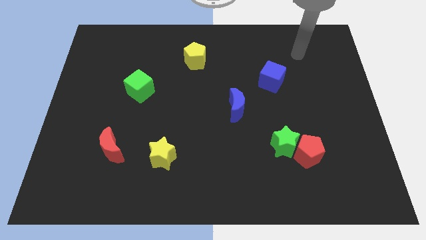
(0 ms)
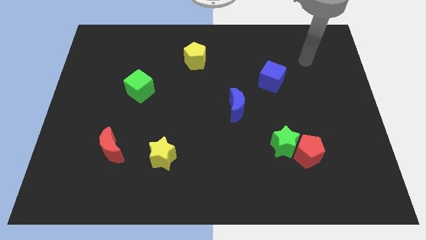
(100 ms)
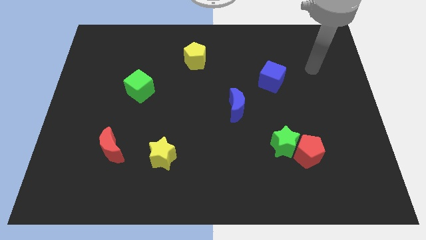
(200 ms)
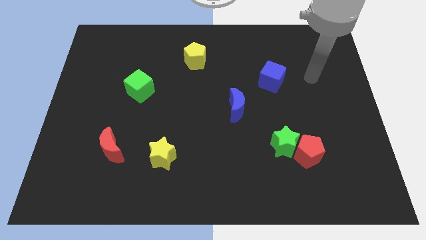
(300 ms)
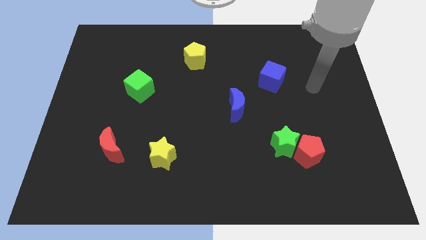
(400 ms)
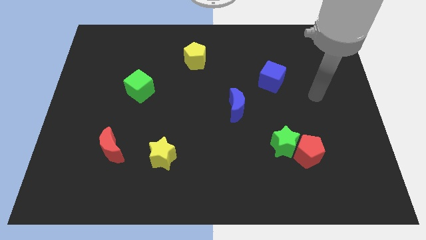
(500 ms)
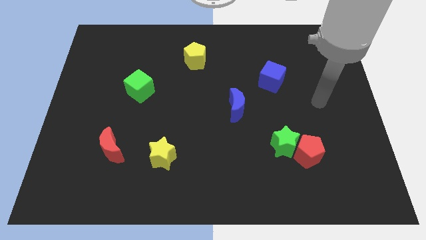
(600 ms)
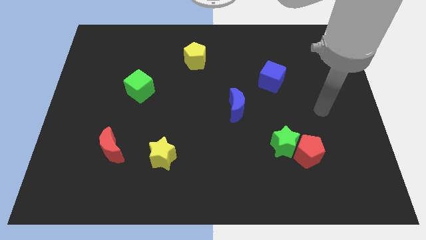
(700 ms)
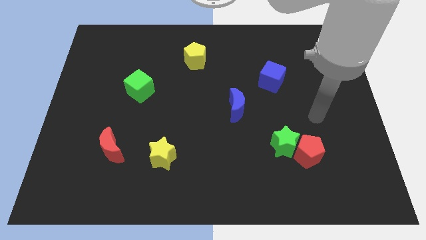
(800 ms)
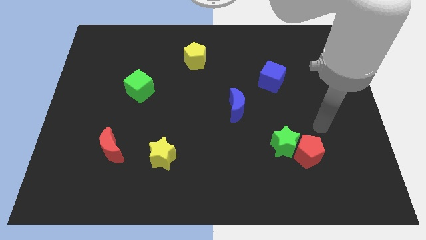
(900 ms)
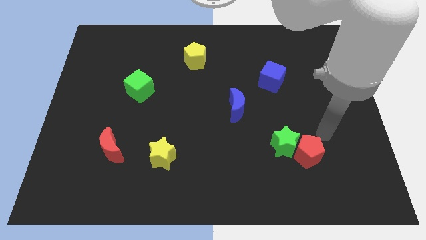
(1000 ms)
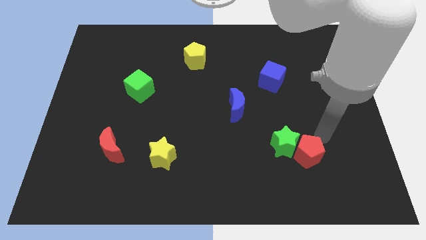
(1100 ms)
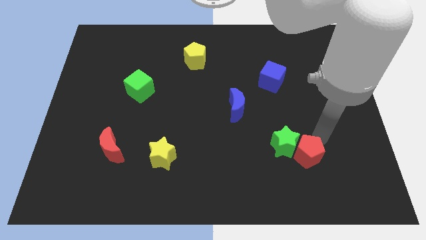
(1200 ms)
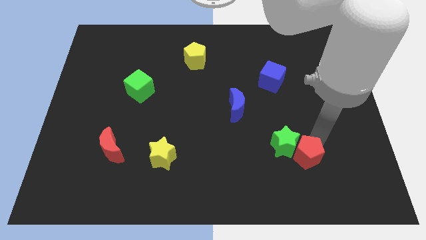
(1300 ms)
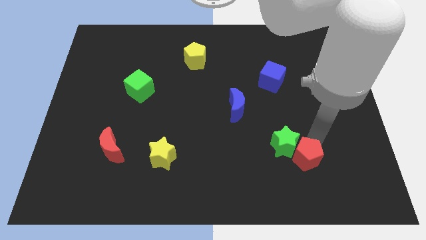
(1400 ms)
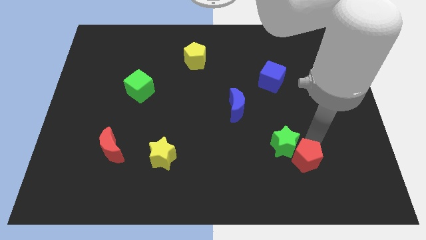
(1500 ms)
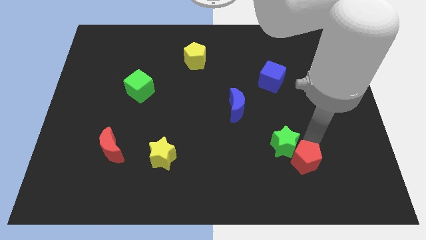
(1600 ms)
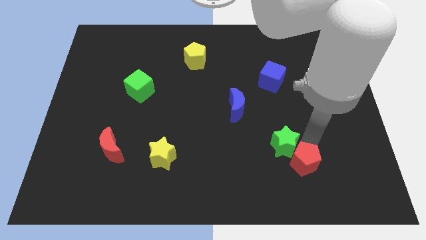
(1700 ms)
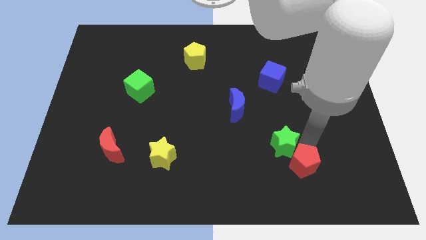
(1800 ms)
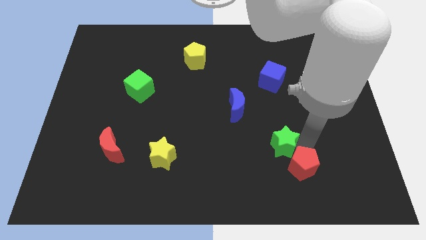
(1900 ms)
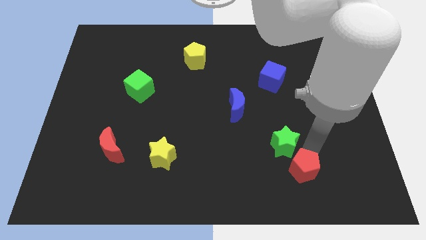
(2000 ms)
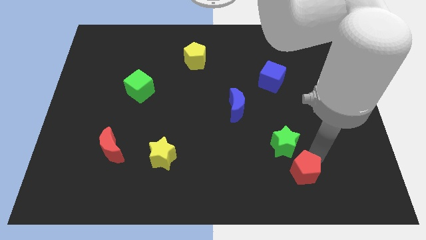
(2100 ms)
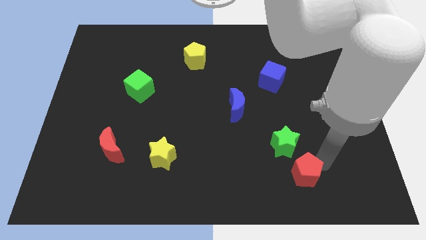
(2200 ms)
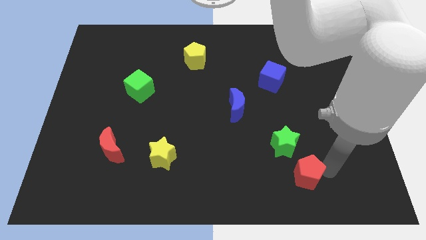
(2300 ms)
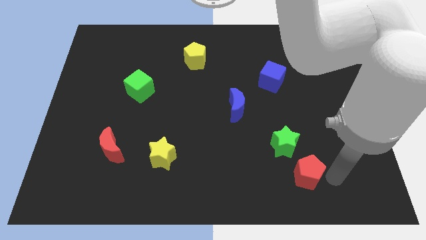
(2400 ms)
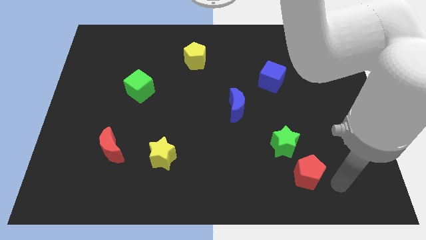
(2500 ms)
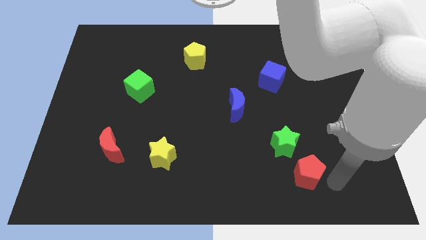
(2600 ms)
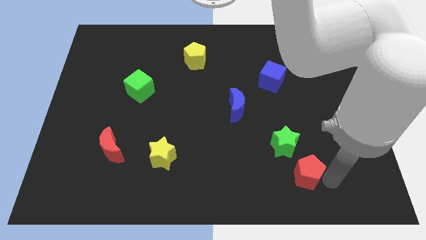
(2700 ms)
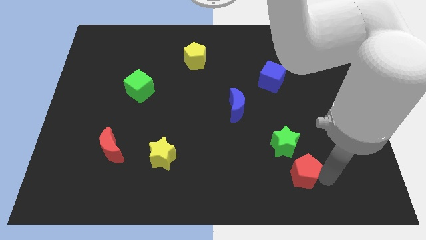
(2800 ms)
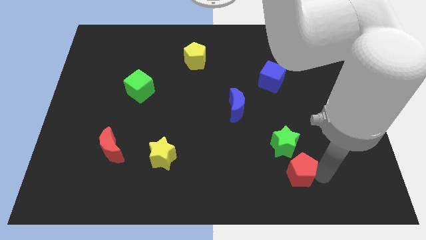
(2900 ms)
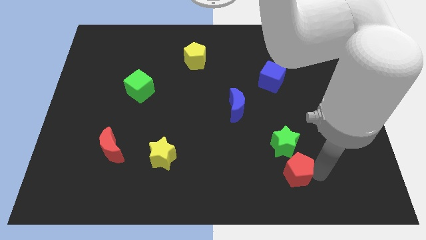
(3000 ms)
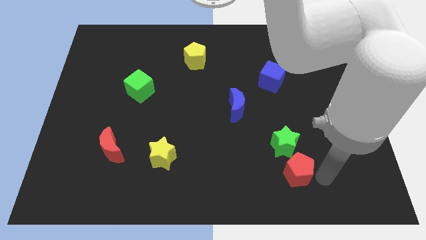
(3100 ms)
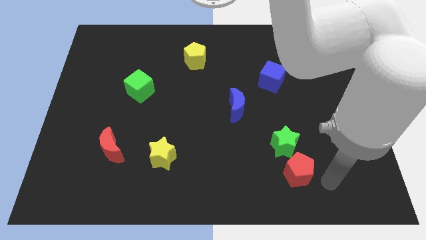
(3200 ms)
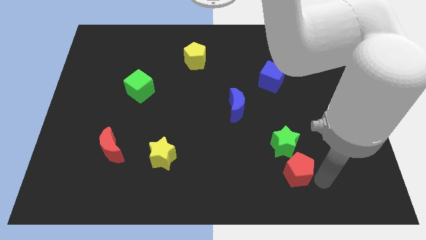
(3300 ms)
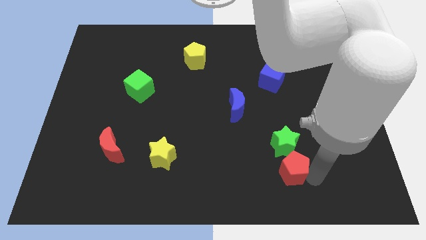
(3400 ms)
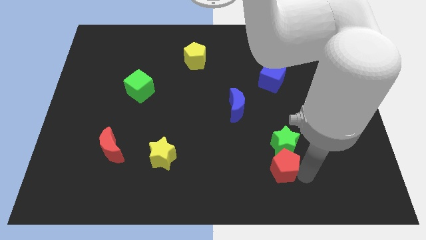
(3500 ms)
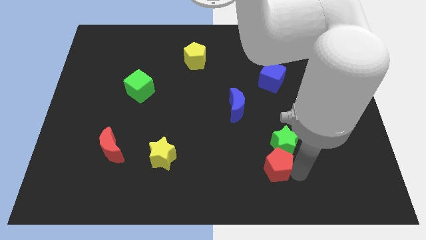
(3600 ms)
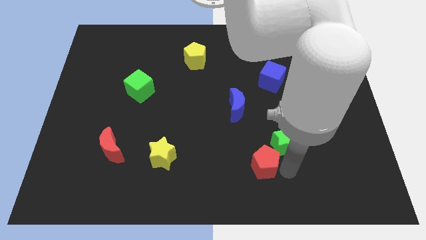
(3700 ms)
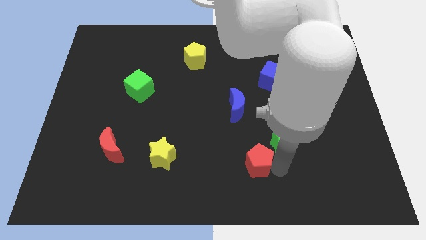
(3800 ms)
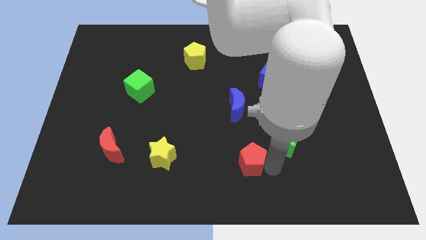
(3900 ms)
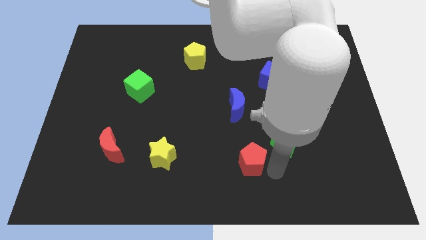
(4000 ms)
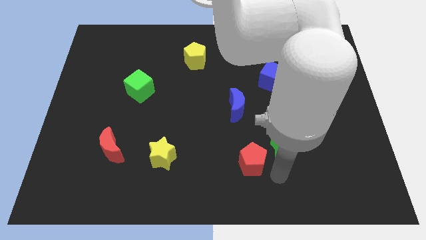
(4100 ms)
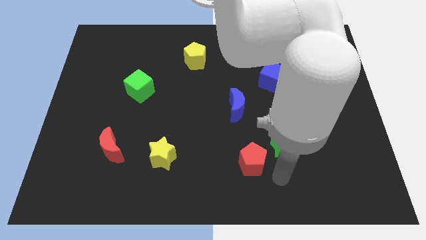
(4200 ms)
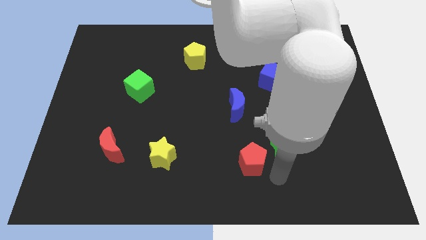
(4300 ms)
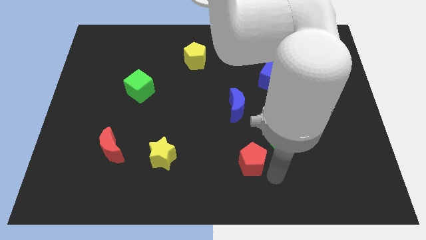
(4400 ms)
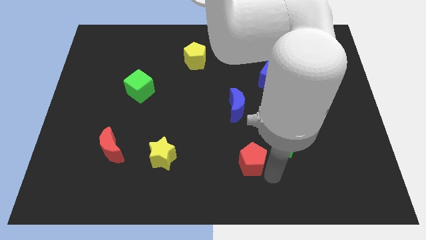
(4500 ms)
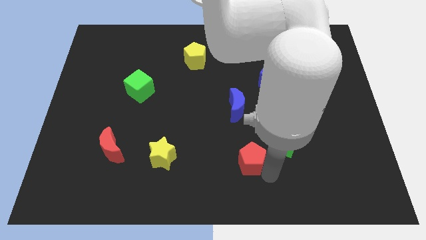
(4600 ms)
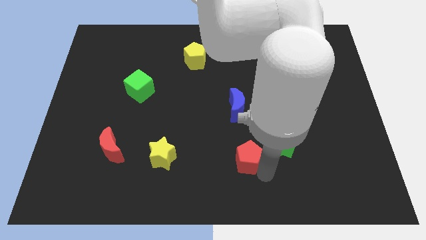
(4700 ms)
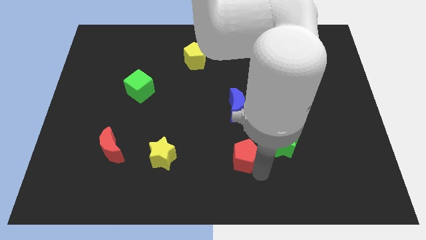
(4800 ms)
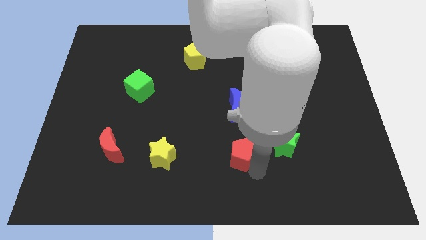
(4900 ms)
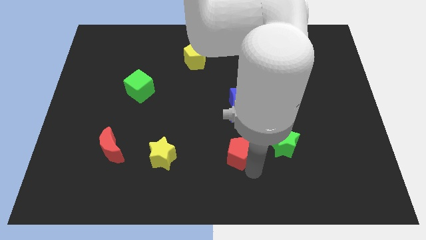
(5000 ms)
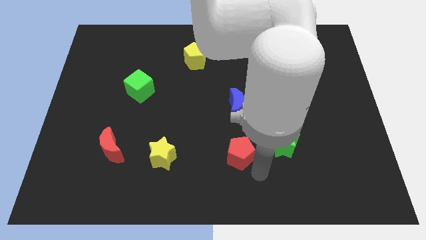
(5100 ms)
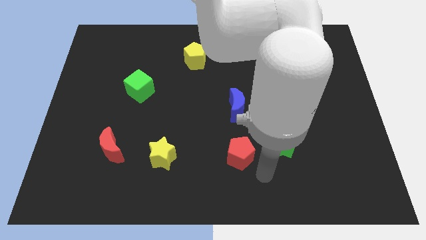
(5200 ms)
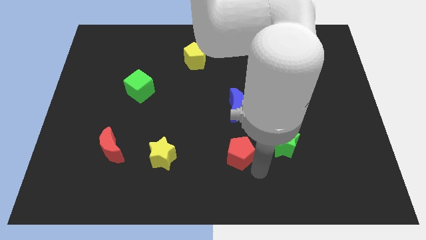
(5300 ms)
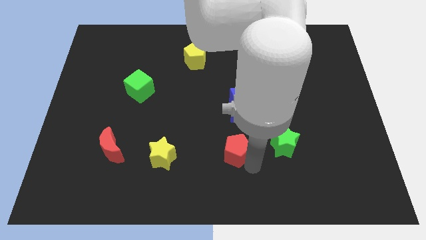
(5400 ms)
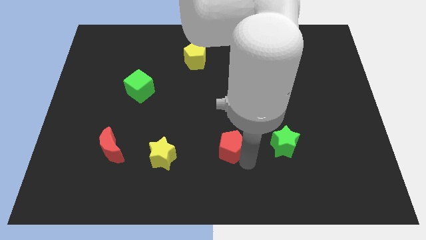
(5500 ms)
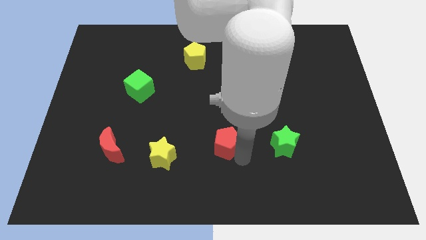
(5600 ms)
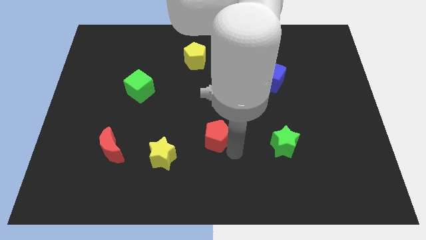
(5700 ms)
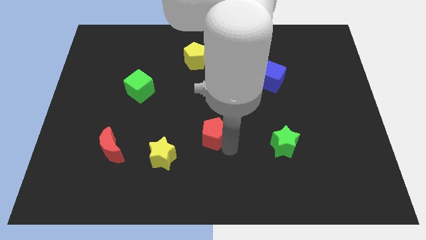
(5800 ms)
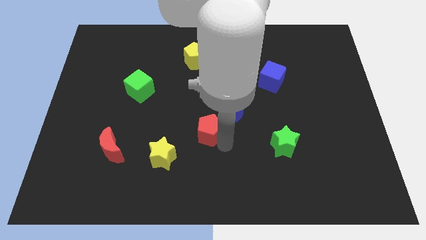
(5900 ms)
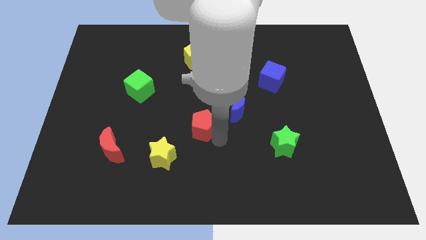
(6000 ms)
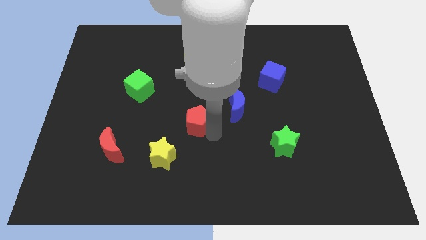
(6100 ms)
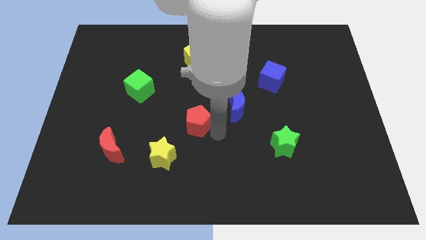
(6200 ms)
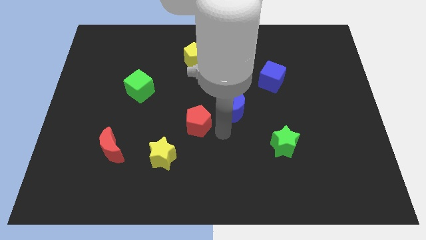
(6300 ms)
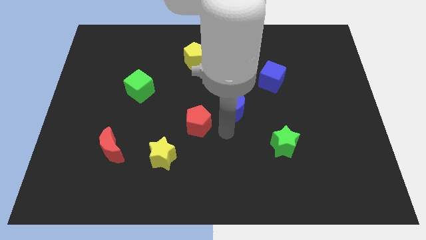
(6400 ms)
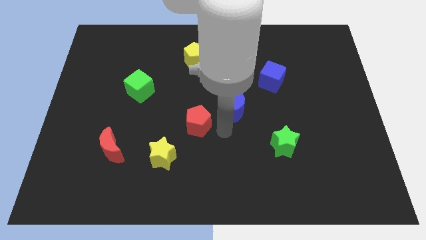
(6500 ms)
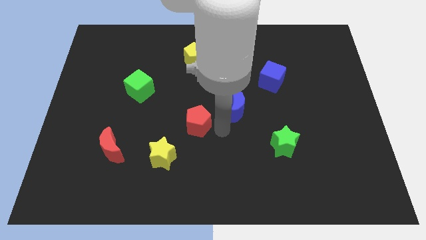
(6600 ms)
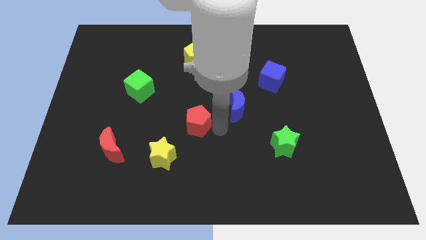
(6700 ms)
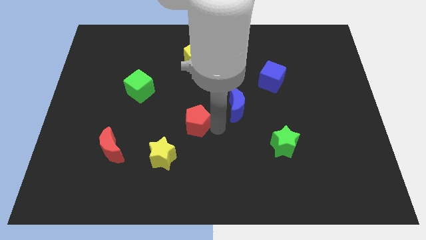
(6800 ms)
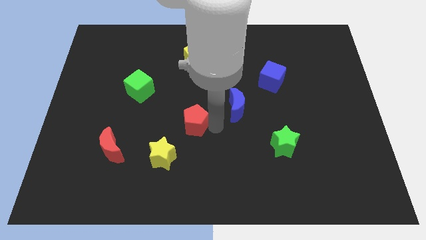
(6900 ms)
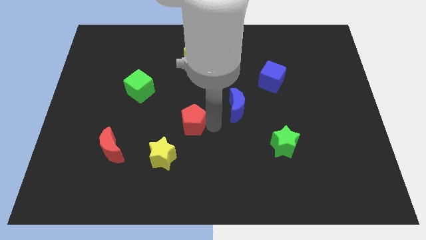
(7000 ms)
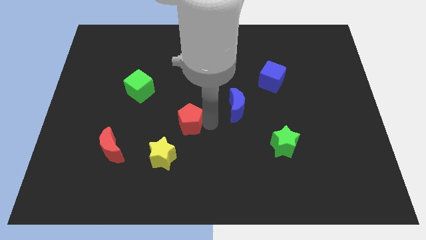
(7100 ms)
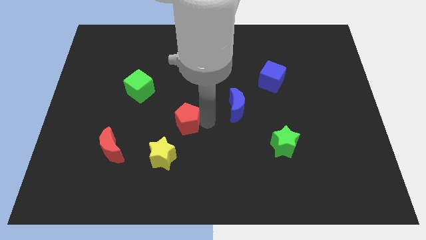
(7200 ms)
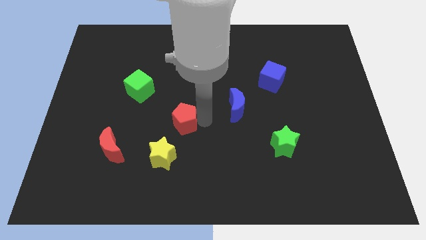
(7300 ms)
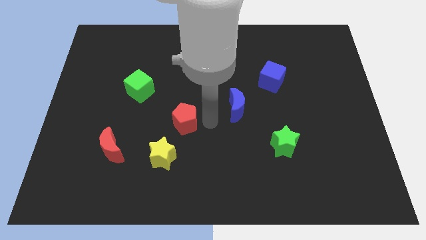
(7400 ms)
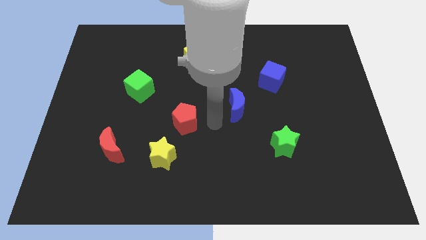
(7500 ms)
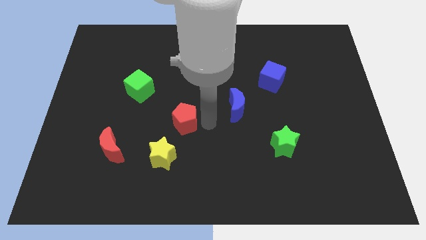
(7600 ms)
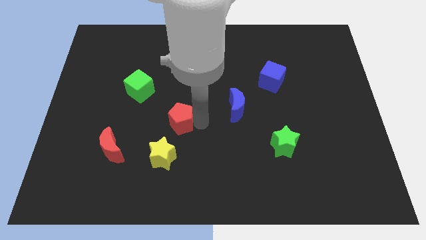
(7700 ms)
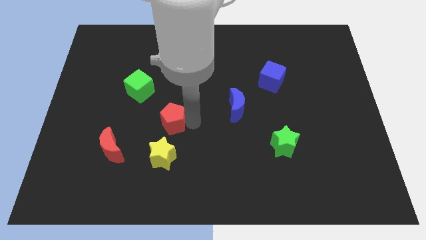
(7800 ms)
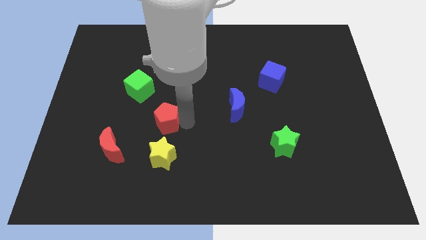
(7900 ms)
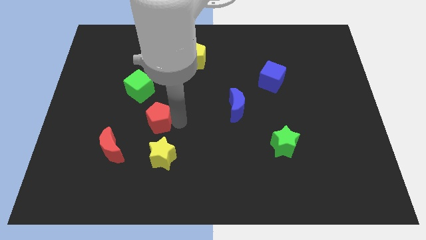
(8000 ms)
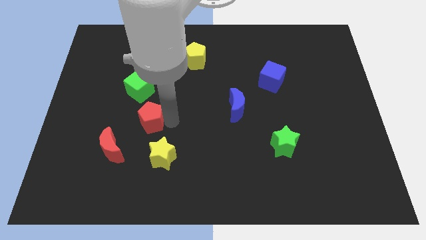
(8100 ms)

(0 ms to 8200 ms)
push the red pentagon to the bottom of the green cube
